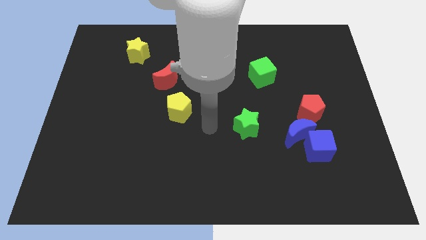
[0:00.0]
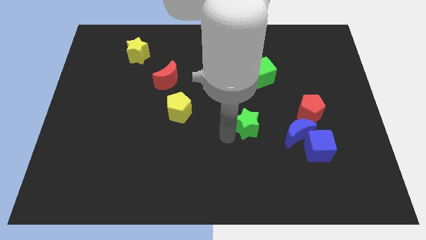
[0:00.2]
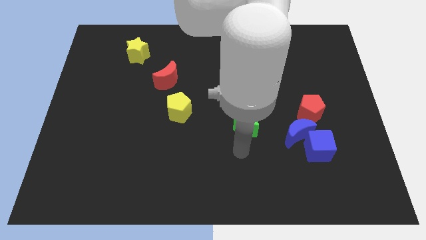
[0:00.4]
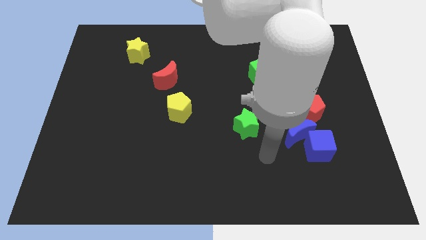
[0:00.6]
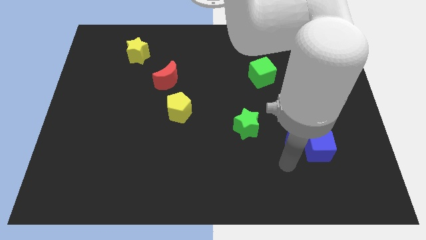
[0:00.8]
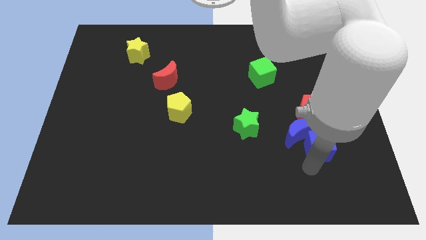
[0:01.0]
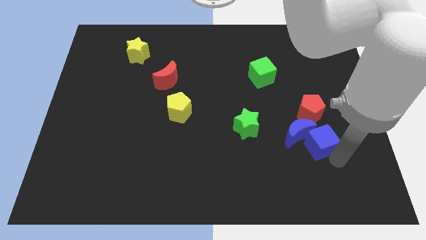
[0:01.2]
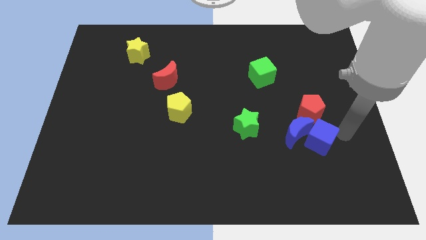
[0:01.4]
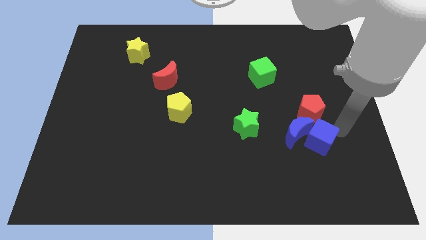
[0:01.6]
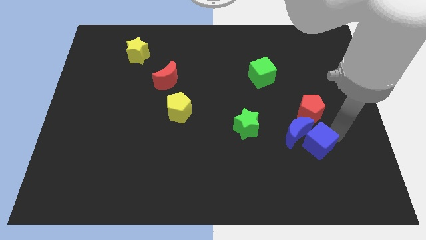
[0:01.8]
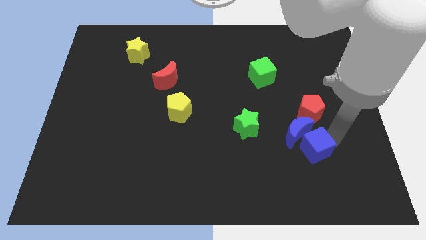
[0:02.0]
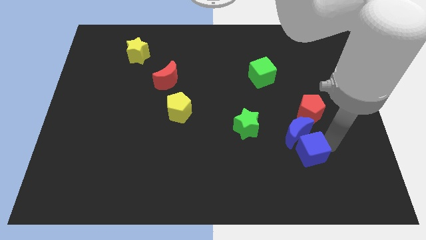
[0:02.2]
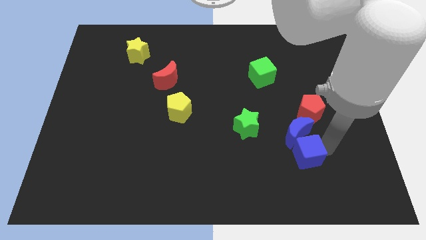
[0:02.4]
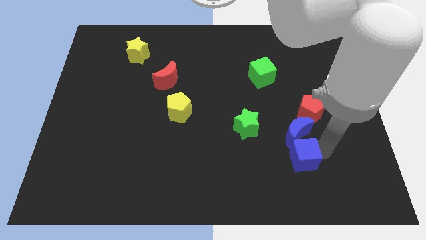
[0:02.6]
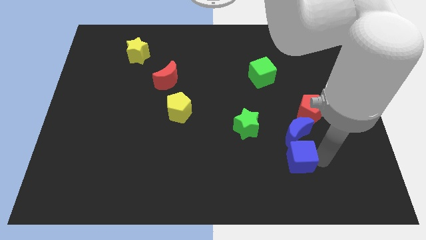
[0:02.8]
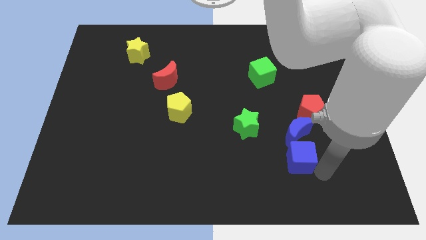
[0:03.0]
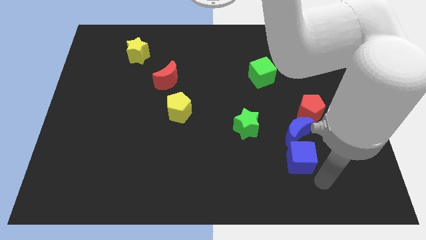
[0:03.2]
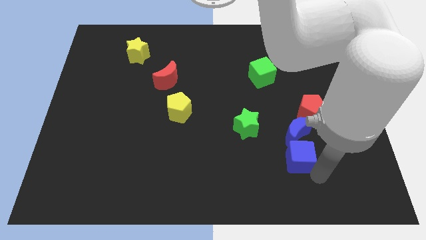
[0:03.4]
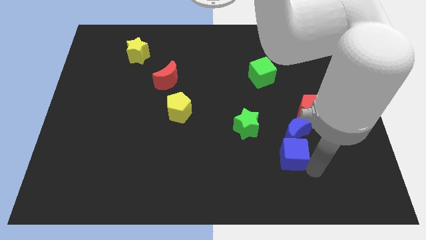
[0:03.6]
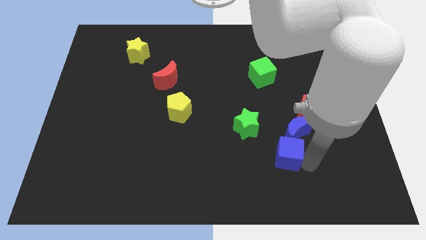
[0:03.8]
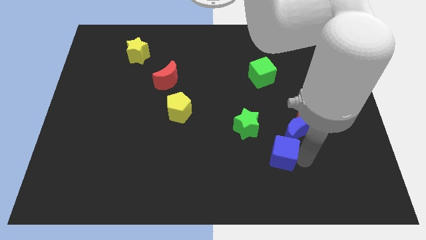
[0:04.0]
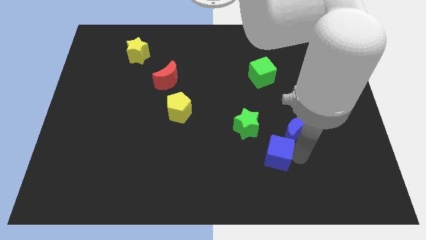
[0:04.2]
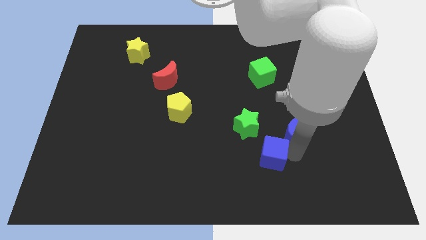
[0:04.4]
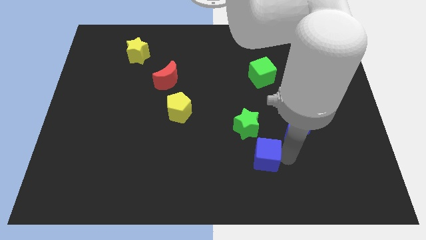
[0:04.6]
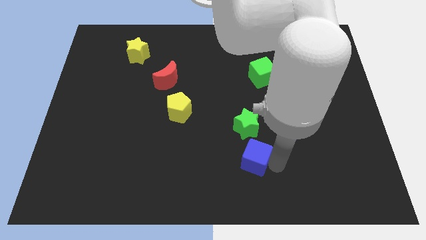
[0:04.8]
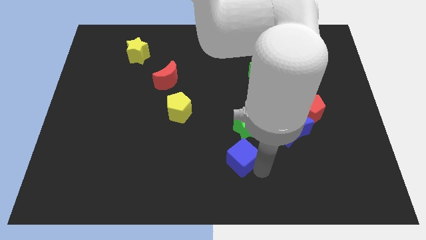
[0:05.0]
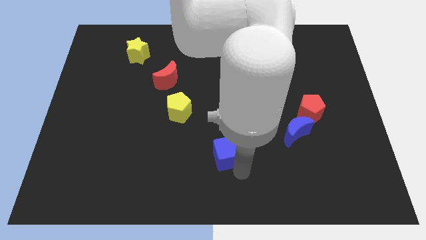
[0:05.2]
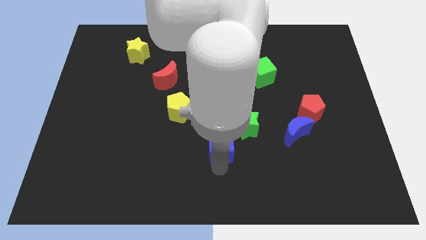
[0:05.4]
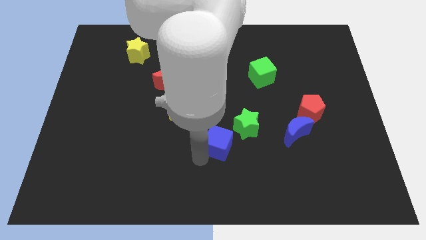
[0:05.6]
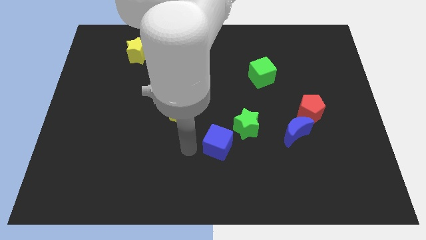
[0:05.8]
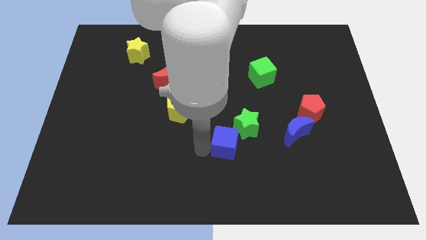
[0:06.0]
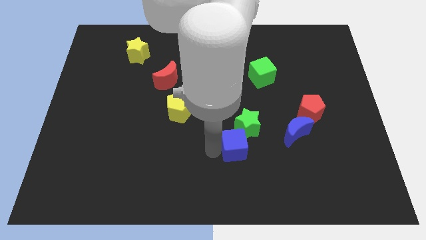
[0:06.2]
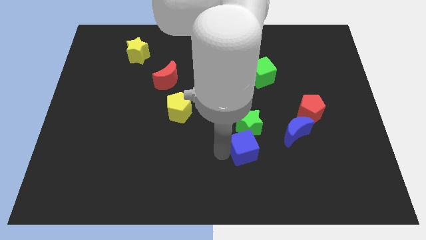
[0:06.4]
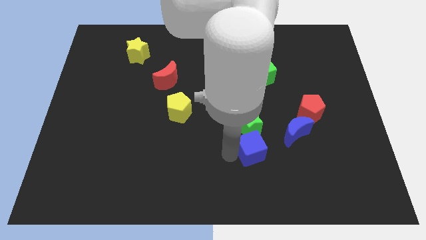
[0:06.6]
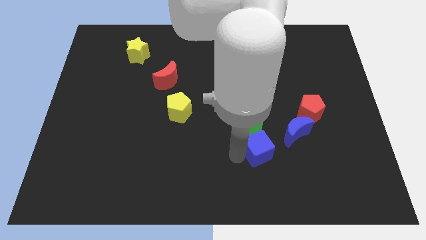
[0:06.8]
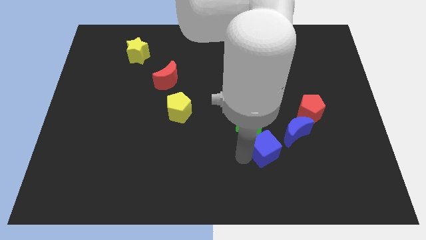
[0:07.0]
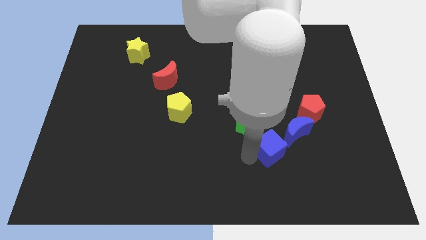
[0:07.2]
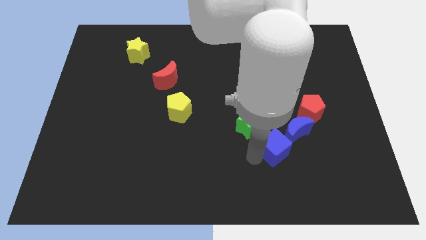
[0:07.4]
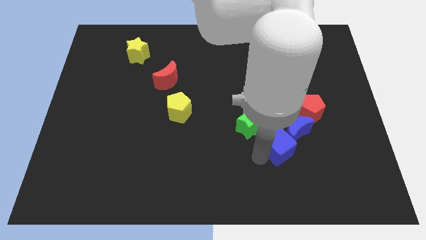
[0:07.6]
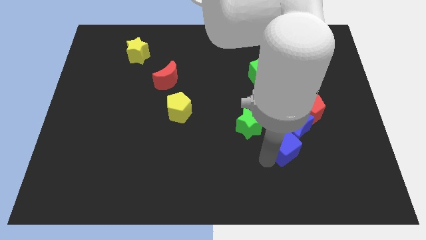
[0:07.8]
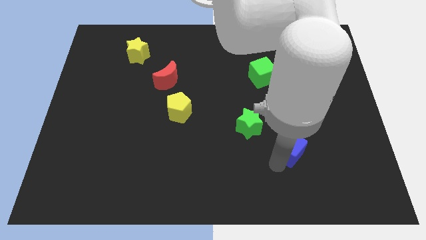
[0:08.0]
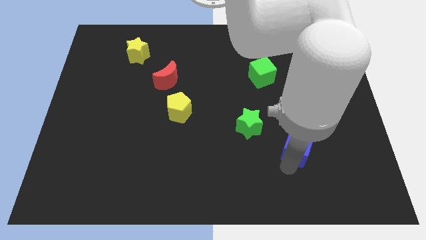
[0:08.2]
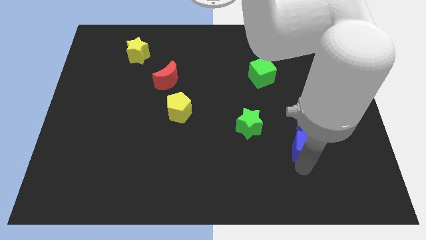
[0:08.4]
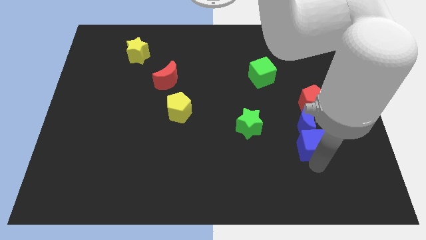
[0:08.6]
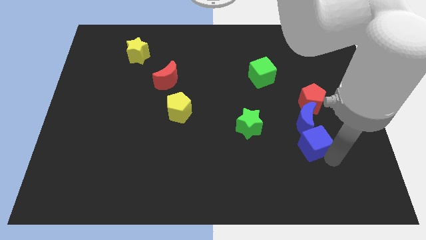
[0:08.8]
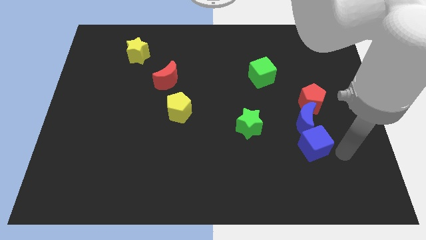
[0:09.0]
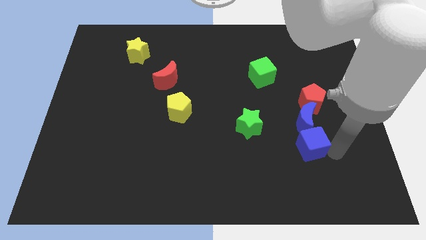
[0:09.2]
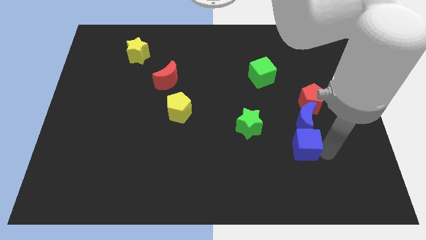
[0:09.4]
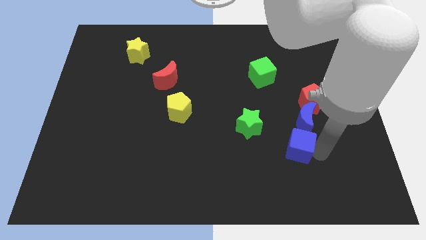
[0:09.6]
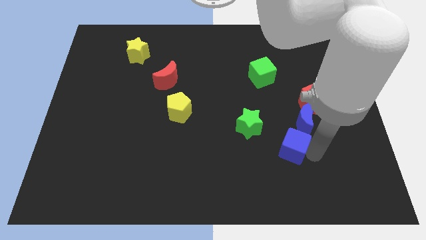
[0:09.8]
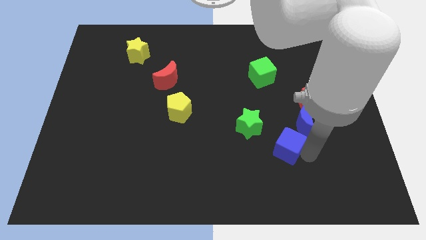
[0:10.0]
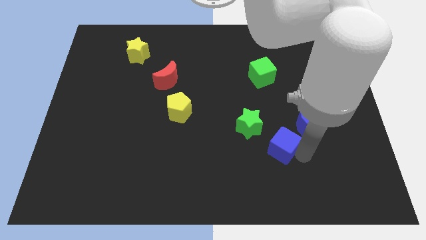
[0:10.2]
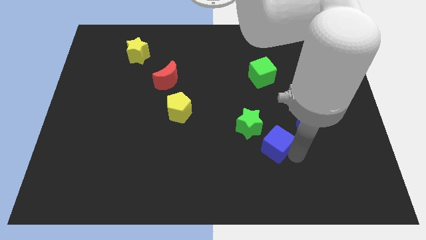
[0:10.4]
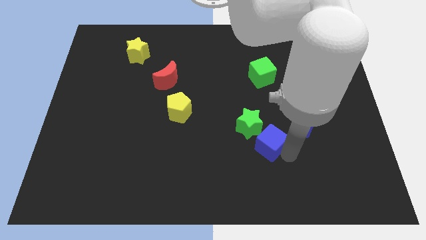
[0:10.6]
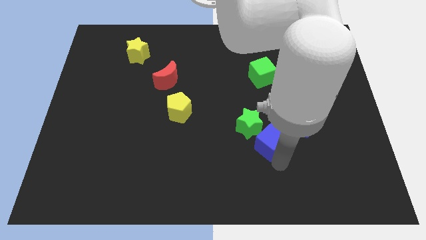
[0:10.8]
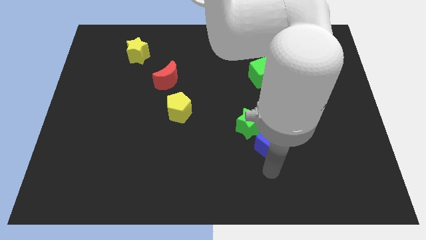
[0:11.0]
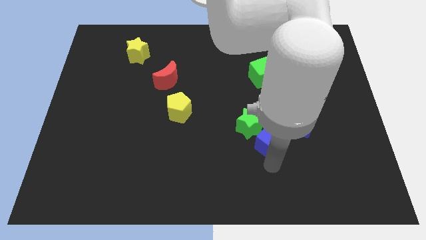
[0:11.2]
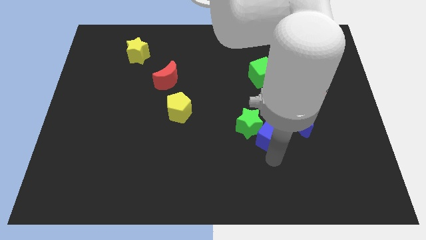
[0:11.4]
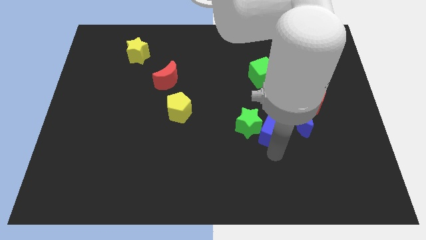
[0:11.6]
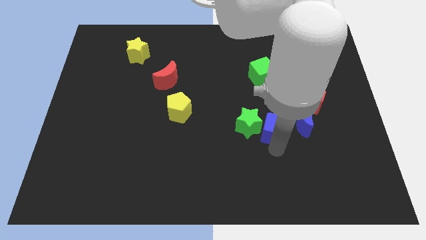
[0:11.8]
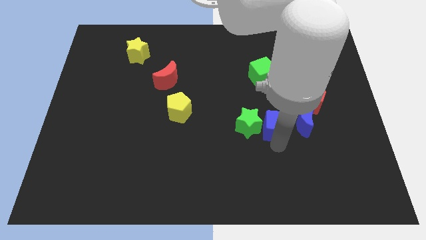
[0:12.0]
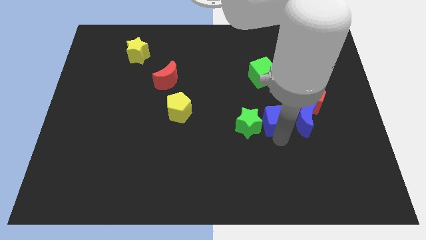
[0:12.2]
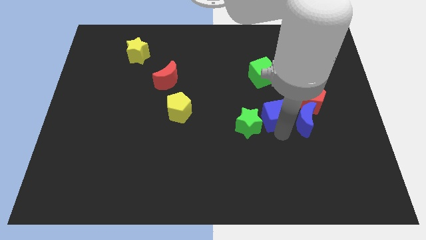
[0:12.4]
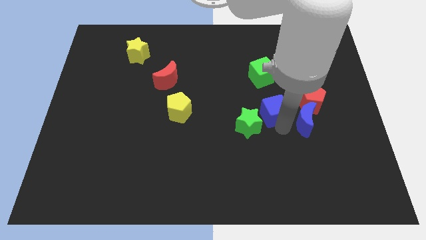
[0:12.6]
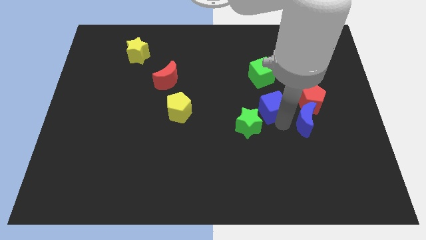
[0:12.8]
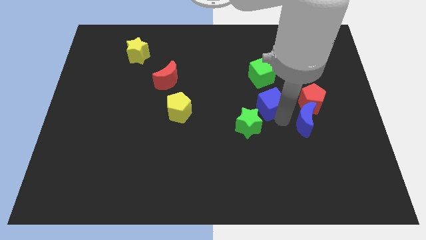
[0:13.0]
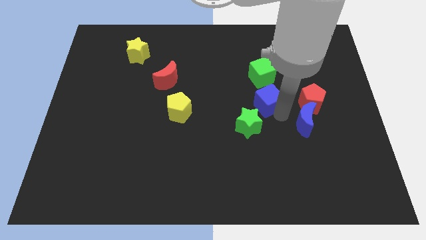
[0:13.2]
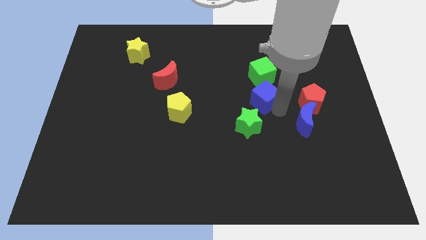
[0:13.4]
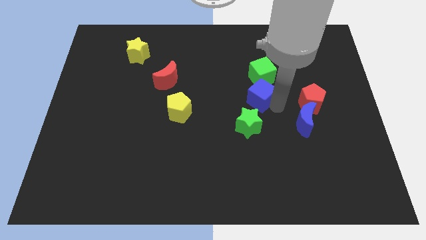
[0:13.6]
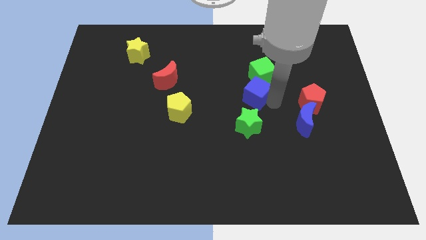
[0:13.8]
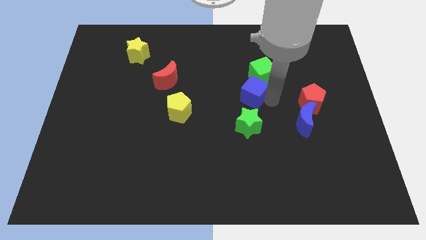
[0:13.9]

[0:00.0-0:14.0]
move the blue cube upwards and to the left diagonally

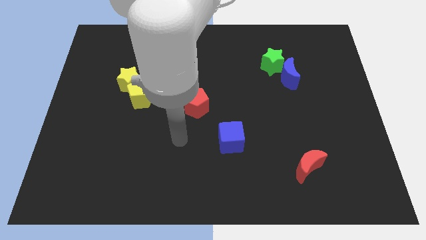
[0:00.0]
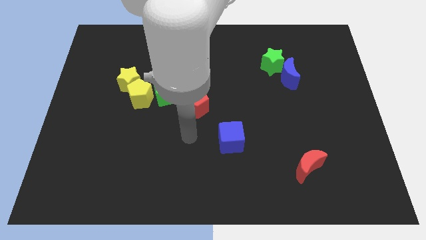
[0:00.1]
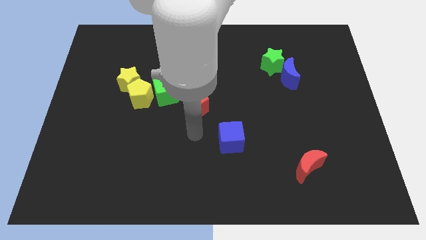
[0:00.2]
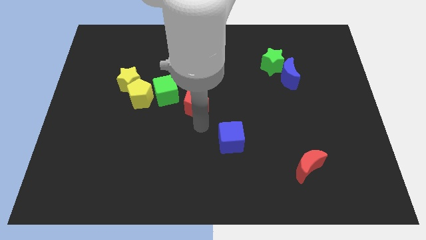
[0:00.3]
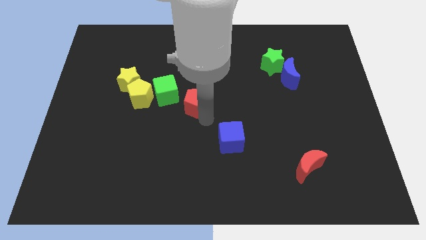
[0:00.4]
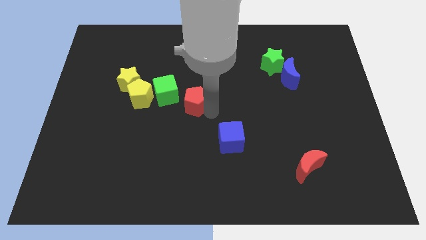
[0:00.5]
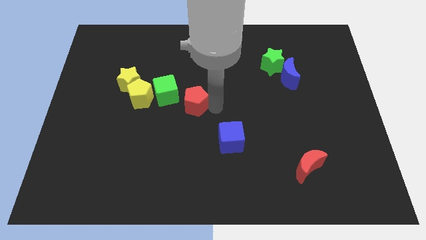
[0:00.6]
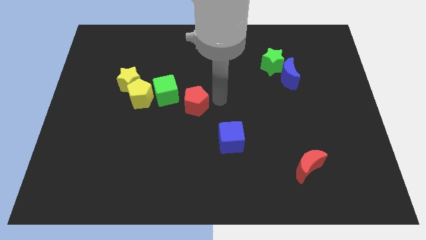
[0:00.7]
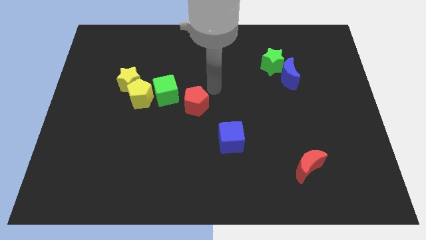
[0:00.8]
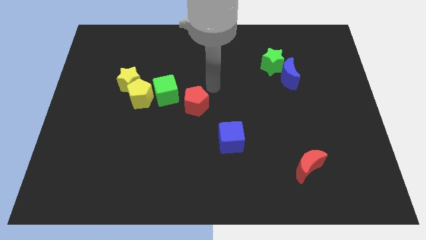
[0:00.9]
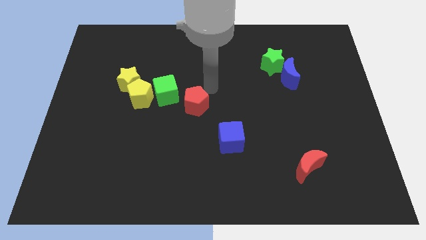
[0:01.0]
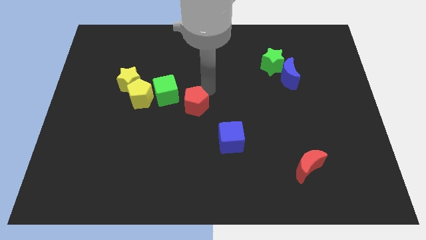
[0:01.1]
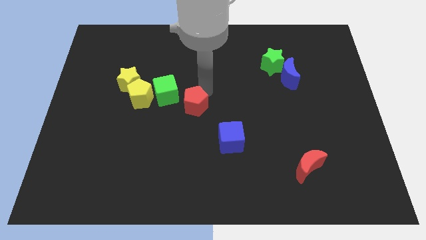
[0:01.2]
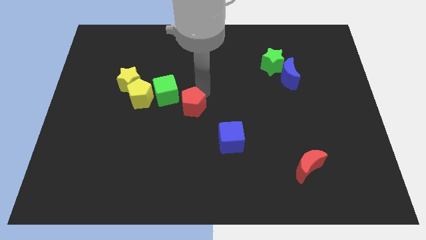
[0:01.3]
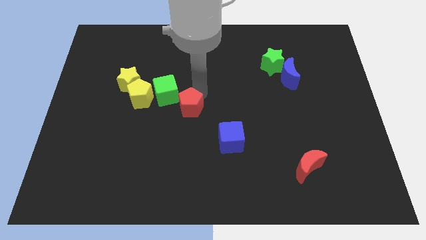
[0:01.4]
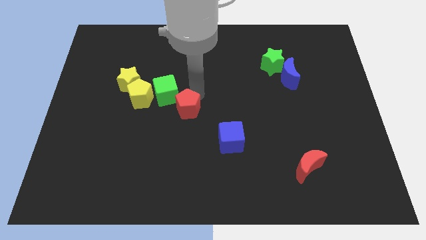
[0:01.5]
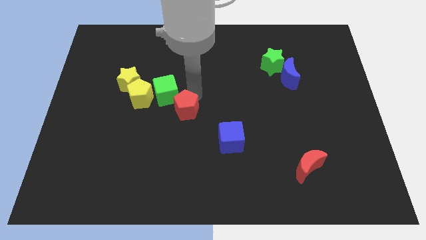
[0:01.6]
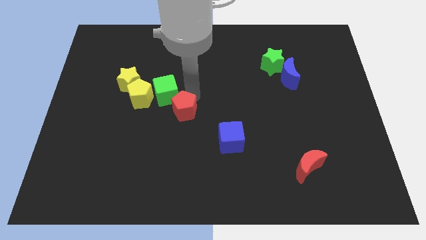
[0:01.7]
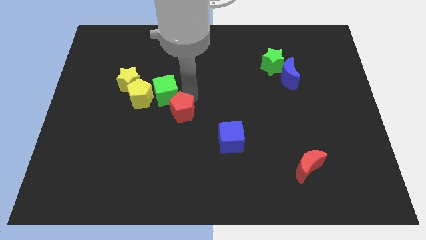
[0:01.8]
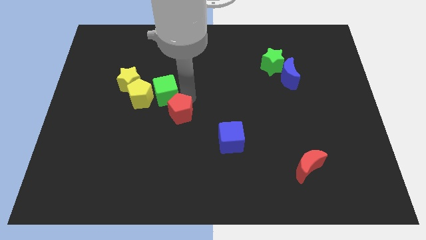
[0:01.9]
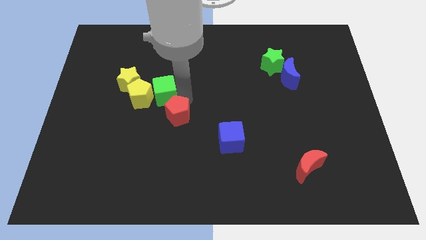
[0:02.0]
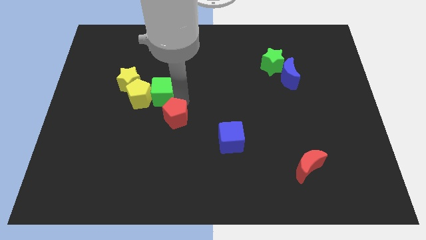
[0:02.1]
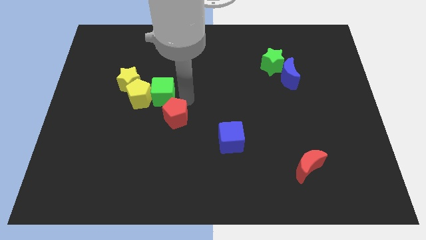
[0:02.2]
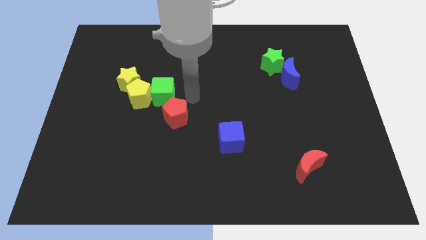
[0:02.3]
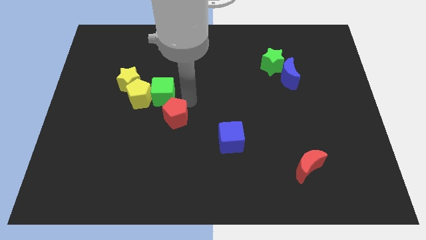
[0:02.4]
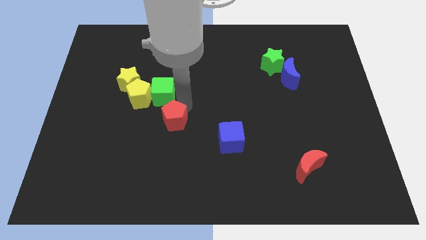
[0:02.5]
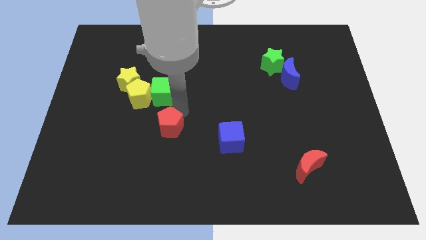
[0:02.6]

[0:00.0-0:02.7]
move the red pentagon a little downwards and then to the left
